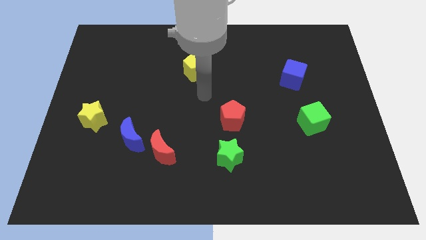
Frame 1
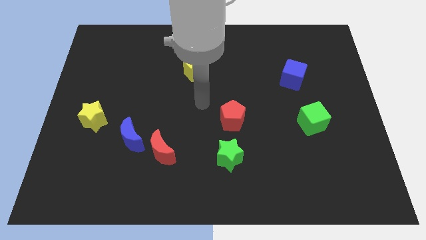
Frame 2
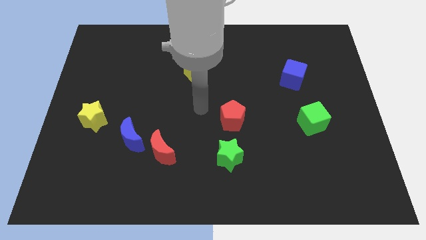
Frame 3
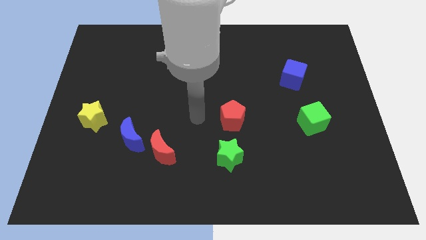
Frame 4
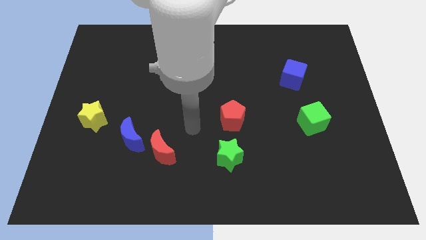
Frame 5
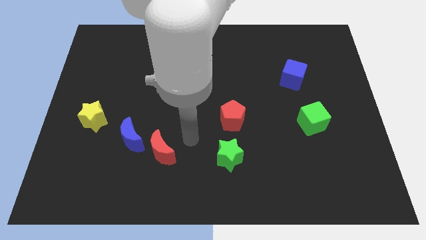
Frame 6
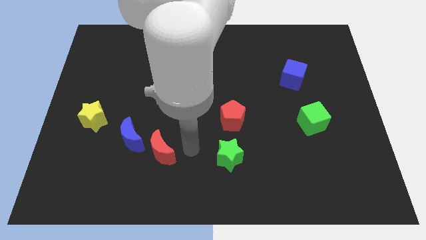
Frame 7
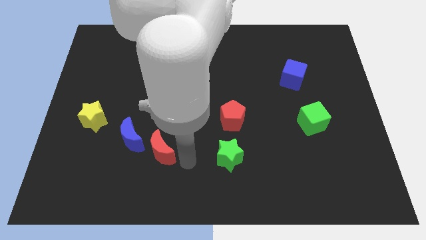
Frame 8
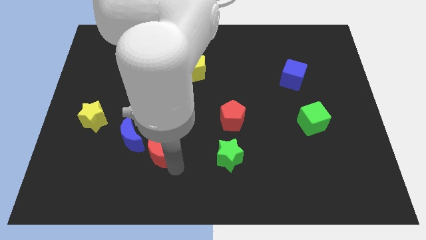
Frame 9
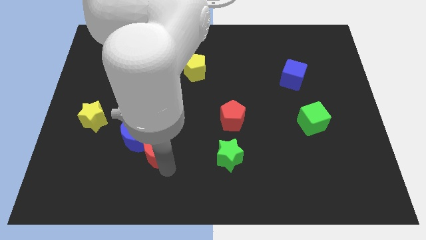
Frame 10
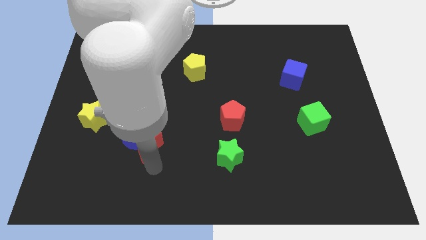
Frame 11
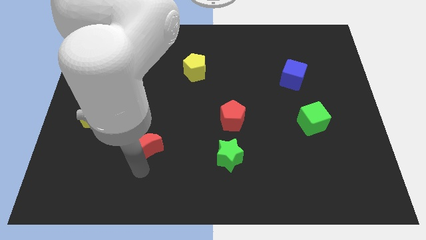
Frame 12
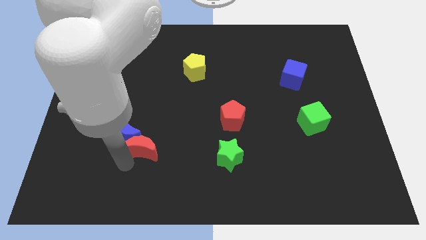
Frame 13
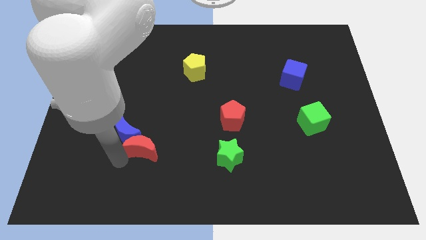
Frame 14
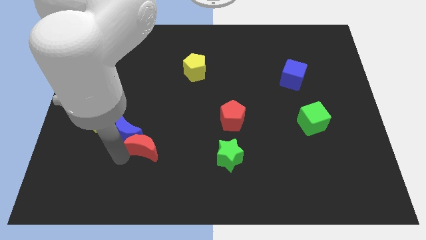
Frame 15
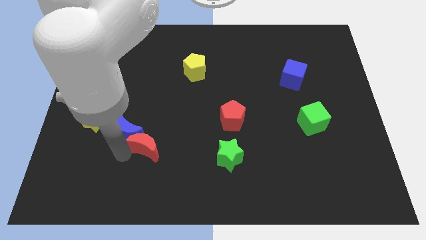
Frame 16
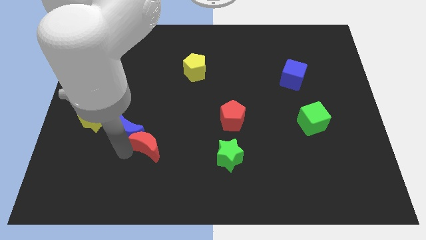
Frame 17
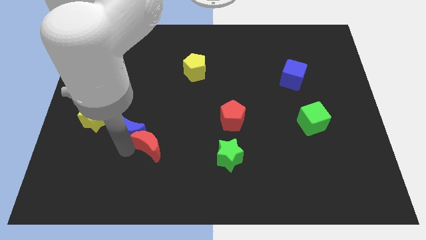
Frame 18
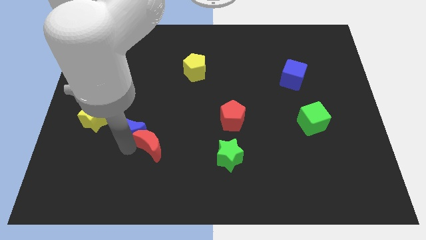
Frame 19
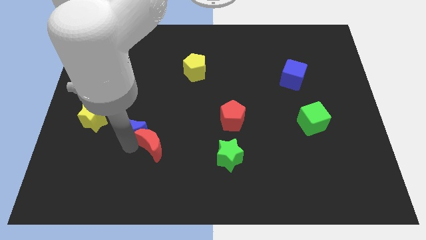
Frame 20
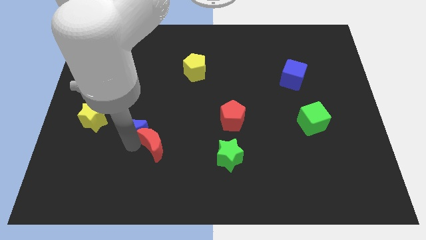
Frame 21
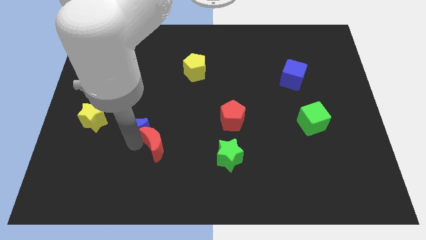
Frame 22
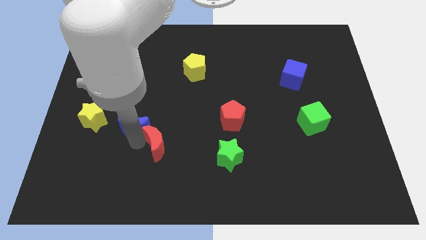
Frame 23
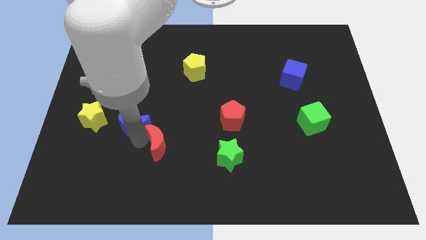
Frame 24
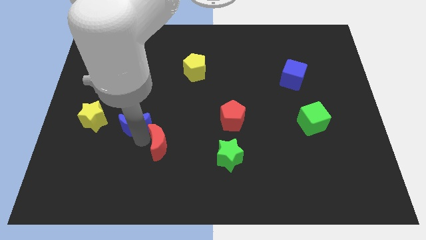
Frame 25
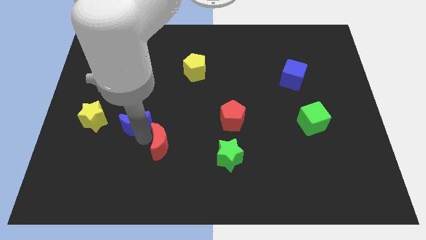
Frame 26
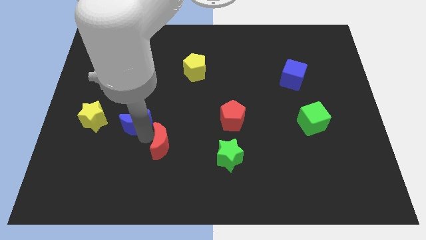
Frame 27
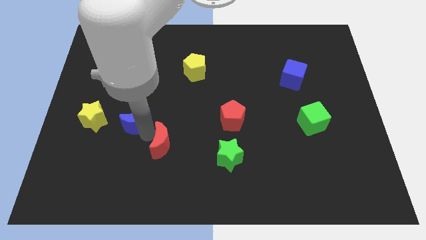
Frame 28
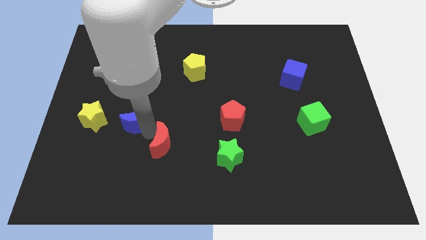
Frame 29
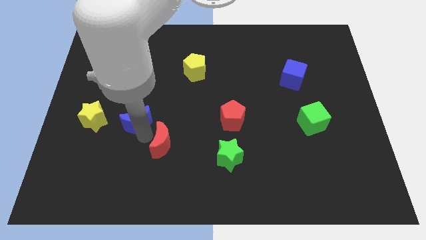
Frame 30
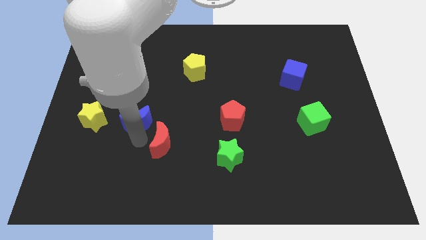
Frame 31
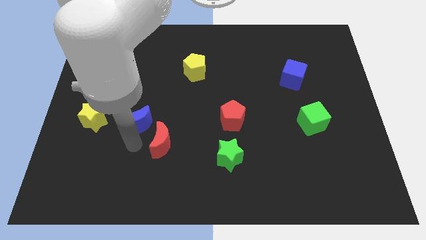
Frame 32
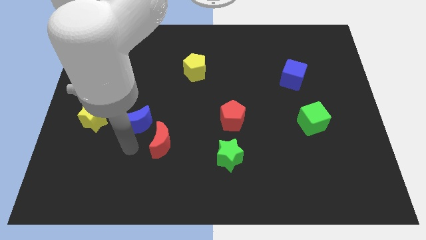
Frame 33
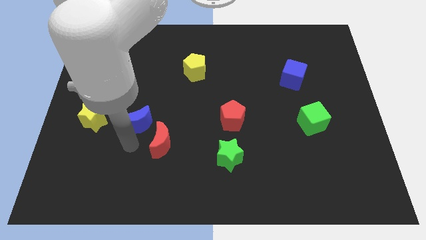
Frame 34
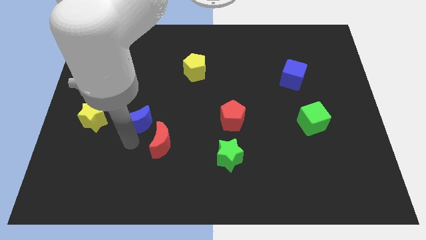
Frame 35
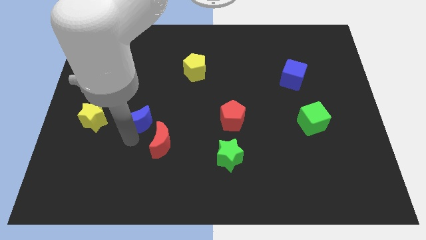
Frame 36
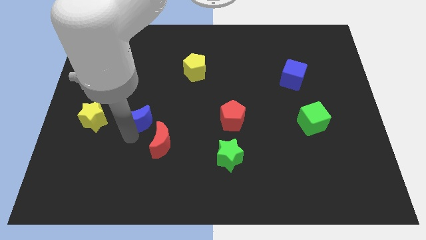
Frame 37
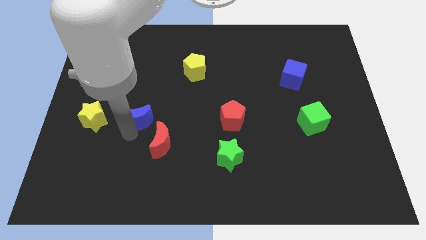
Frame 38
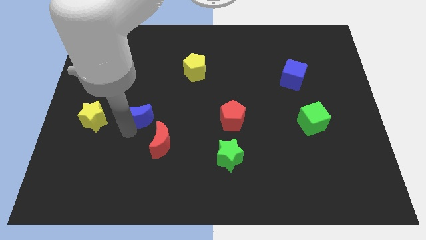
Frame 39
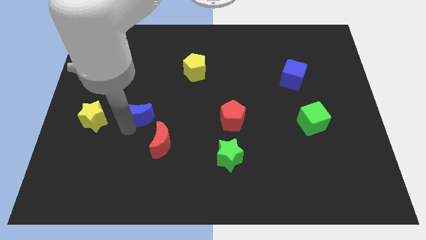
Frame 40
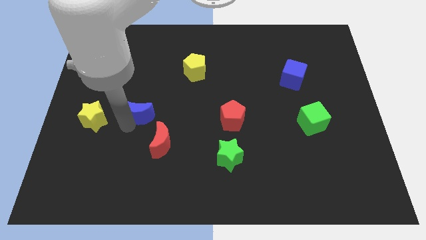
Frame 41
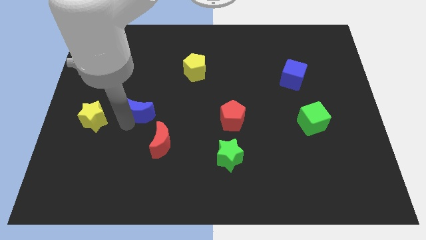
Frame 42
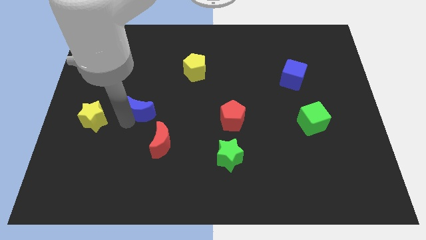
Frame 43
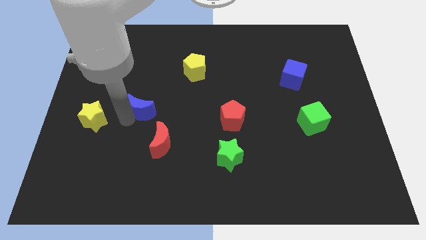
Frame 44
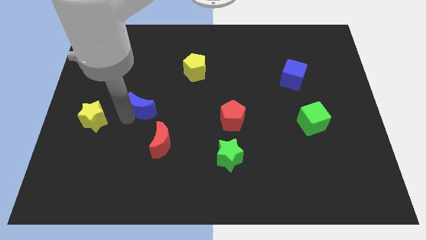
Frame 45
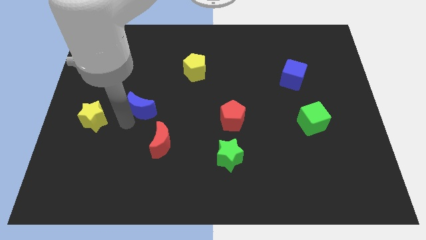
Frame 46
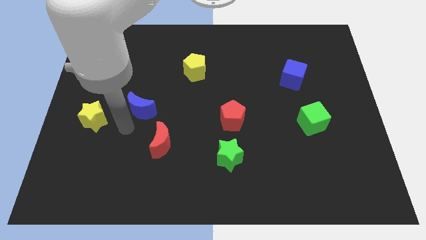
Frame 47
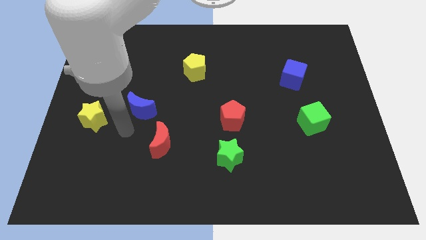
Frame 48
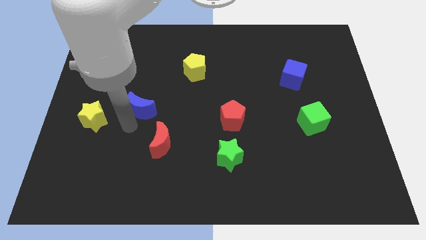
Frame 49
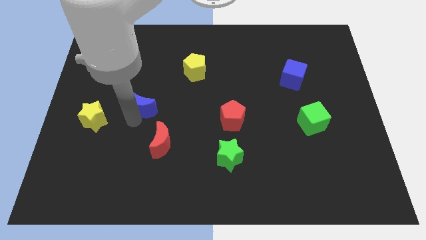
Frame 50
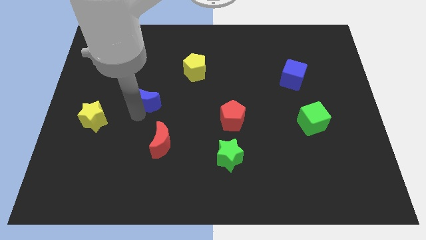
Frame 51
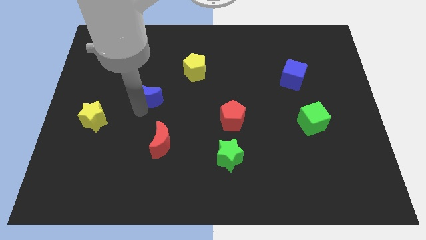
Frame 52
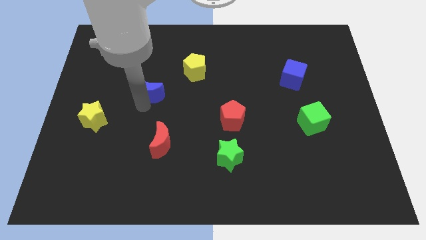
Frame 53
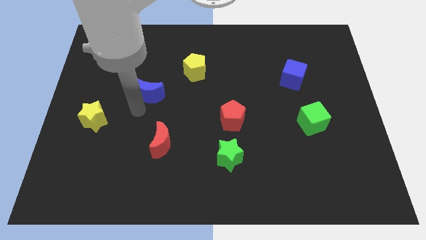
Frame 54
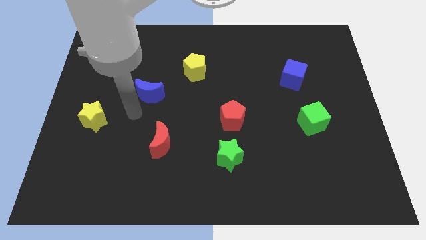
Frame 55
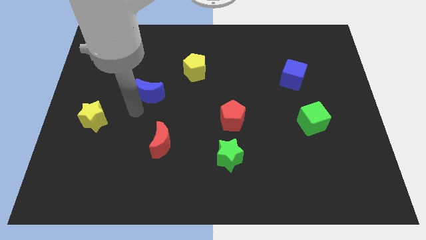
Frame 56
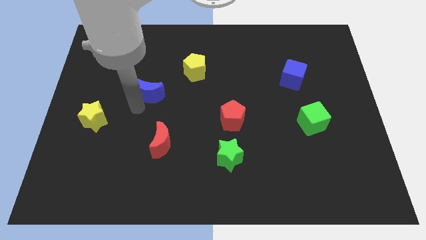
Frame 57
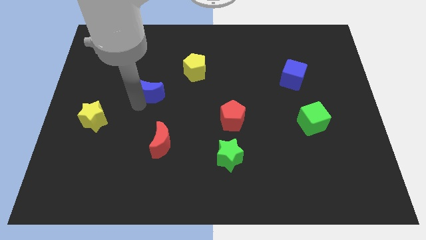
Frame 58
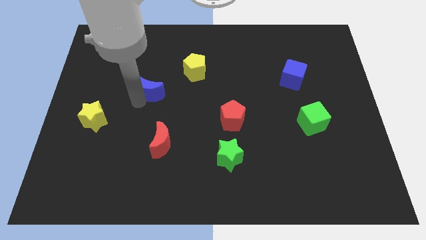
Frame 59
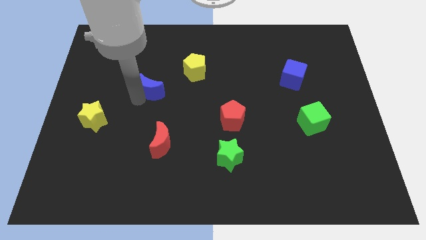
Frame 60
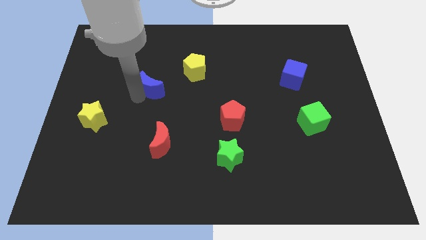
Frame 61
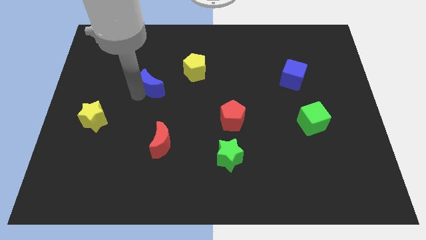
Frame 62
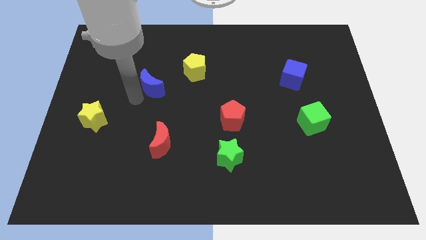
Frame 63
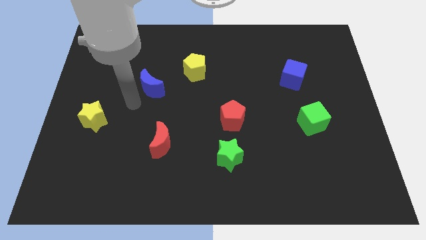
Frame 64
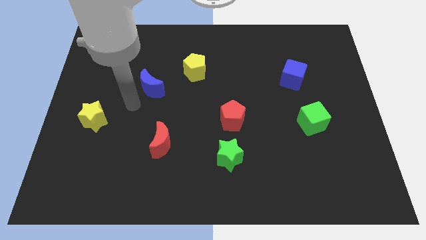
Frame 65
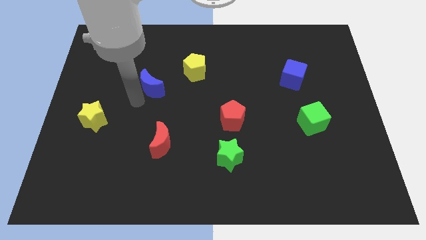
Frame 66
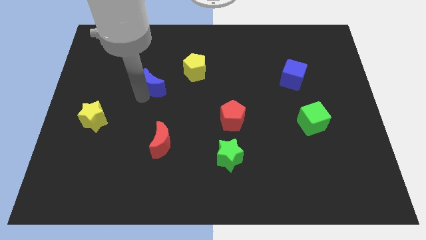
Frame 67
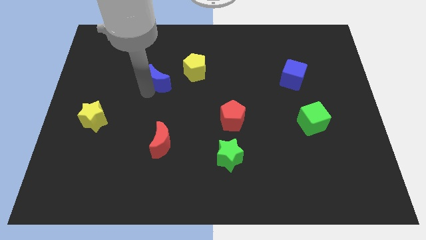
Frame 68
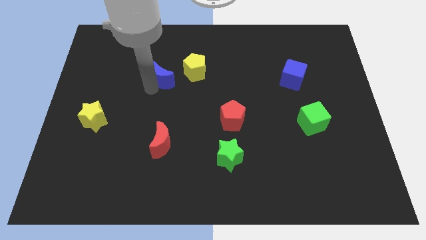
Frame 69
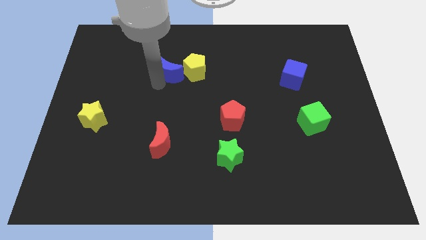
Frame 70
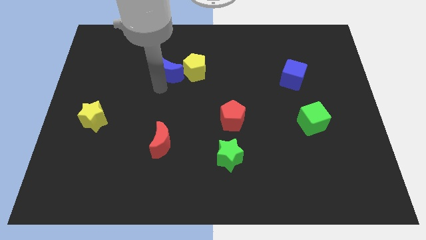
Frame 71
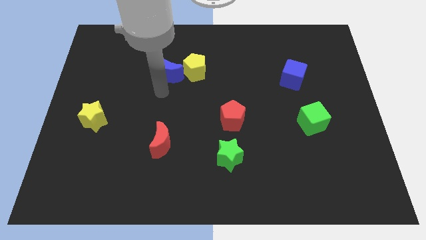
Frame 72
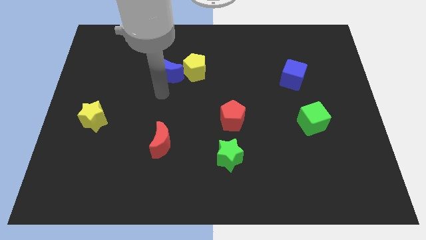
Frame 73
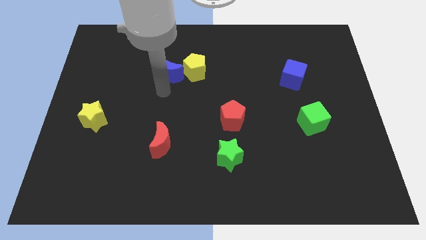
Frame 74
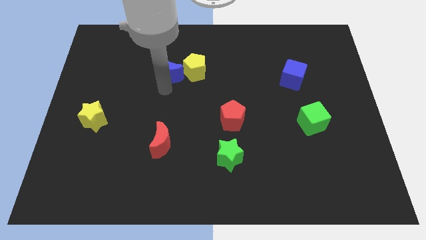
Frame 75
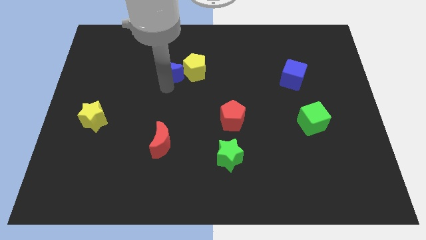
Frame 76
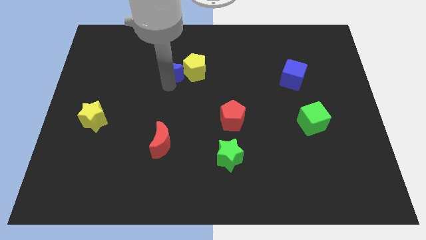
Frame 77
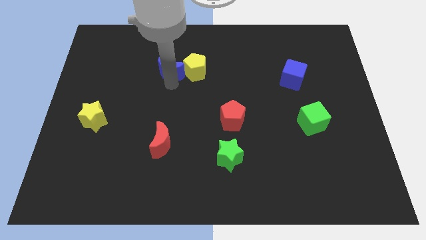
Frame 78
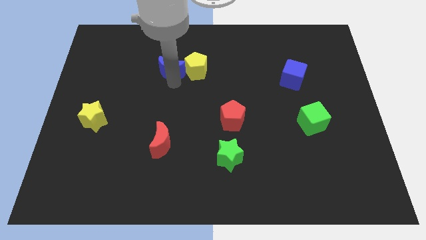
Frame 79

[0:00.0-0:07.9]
move the blue moon to the top left of the yellow pentagon
